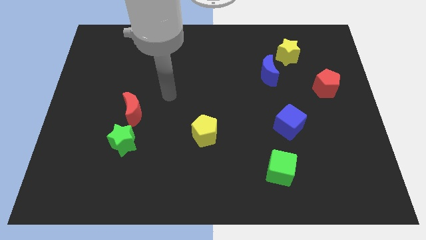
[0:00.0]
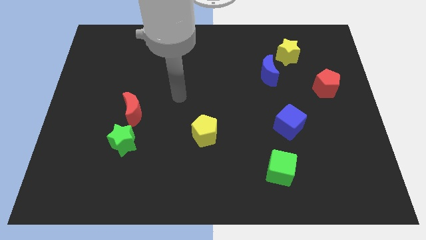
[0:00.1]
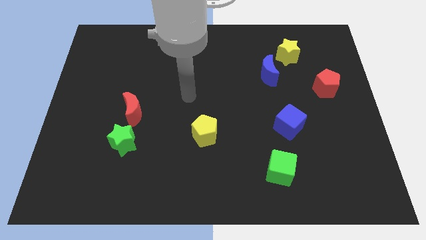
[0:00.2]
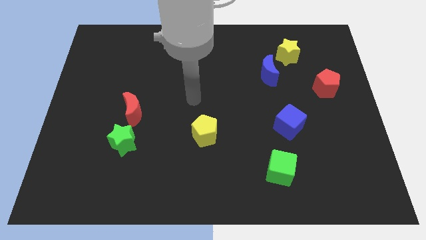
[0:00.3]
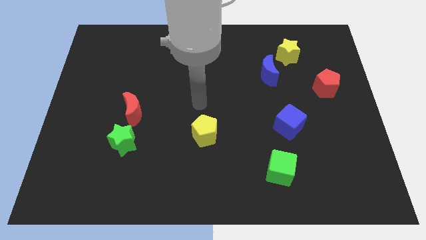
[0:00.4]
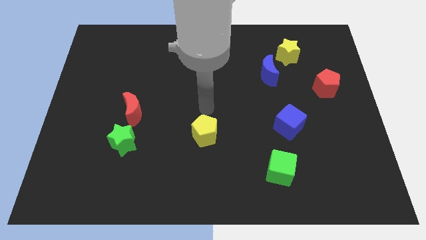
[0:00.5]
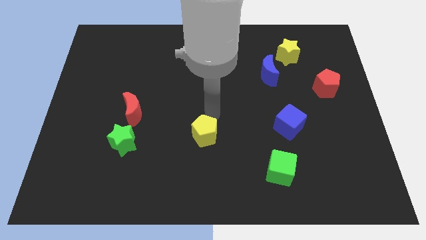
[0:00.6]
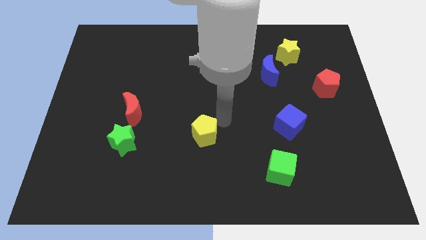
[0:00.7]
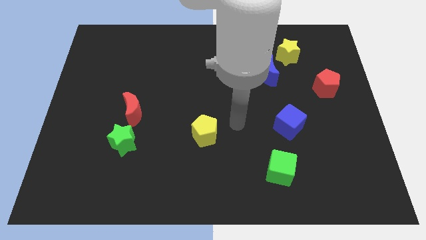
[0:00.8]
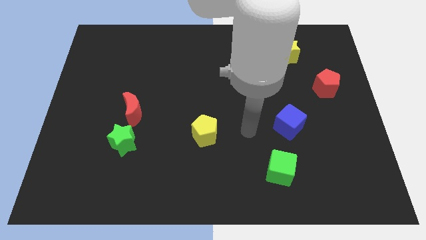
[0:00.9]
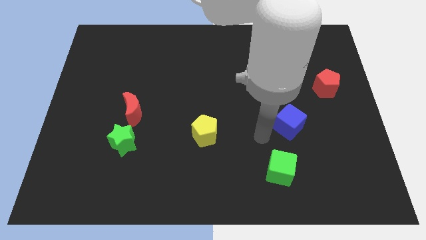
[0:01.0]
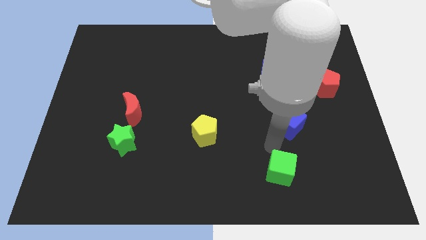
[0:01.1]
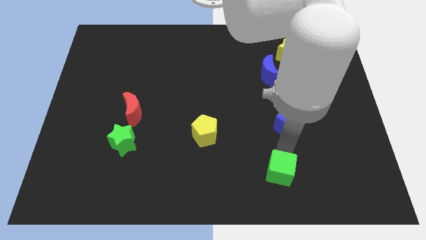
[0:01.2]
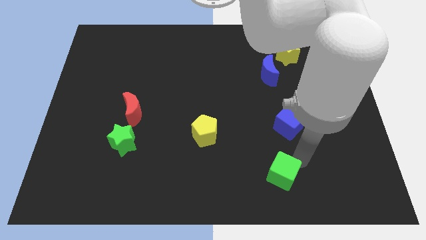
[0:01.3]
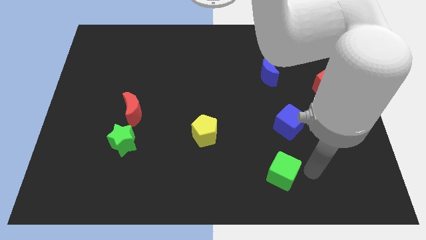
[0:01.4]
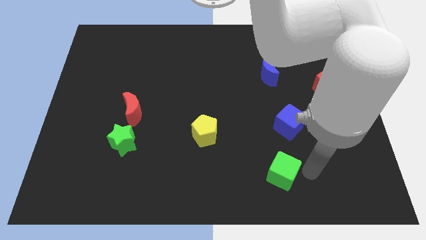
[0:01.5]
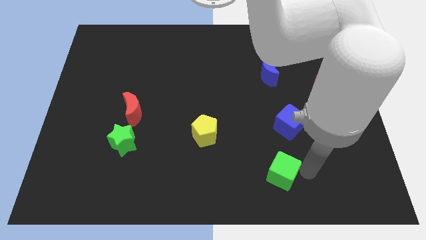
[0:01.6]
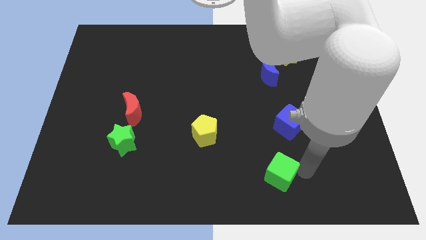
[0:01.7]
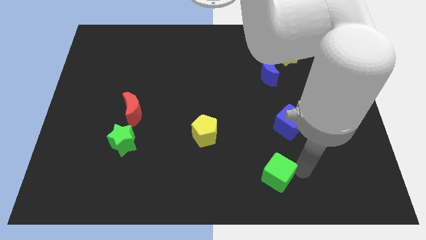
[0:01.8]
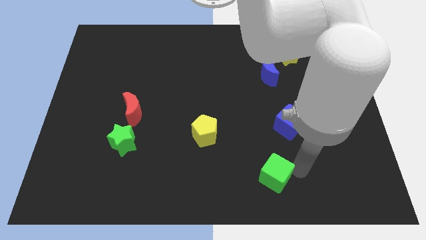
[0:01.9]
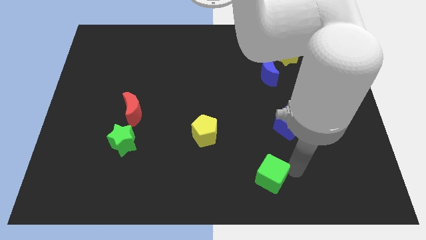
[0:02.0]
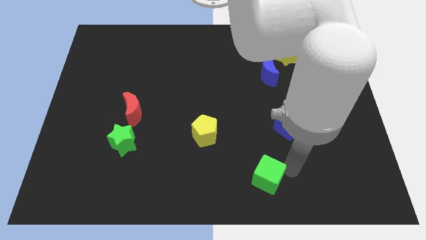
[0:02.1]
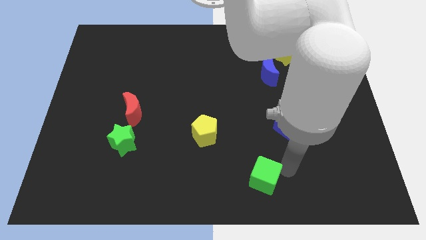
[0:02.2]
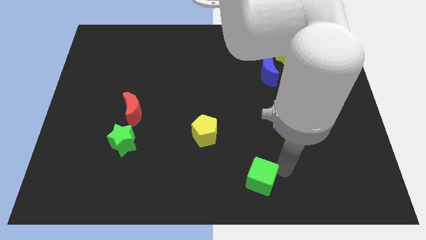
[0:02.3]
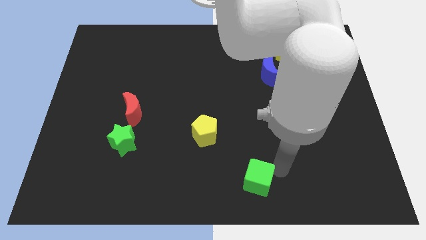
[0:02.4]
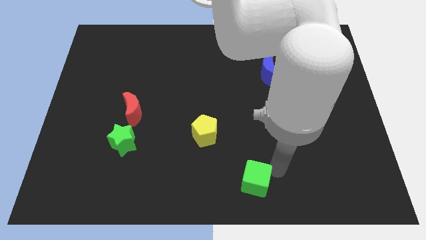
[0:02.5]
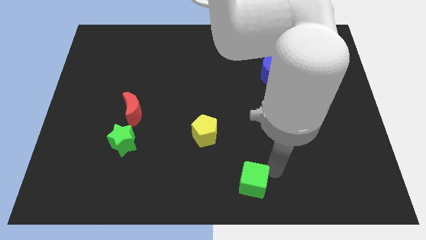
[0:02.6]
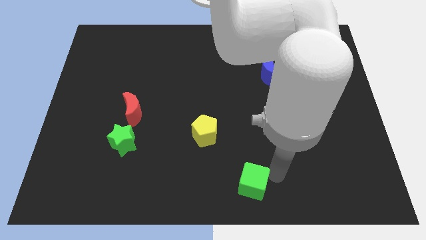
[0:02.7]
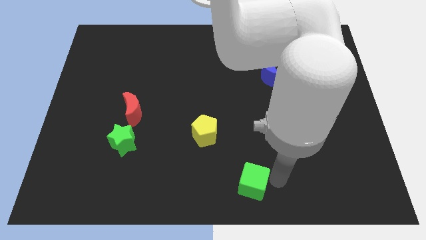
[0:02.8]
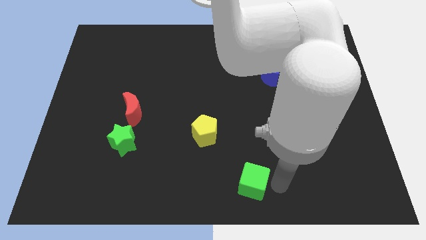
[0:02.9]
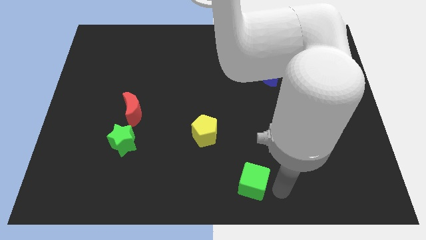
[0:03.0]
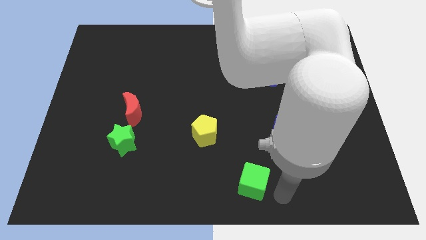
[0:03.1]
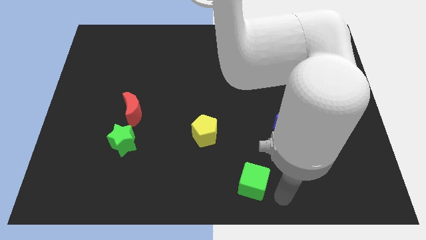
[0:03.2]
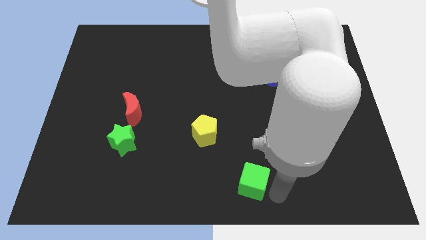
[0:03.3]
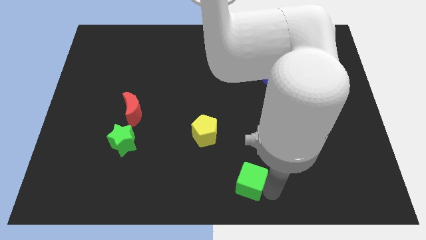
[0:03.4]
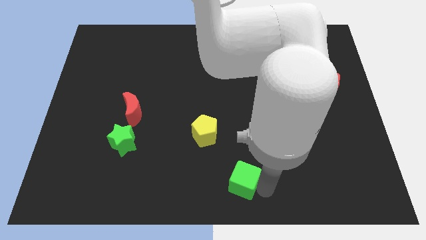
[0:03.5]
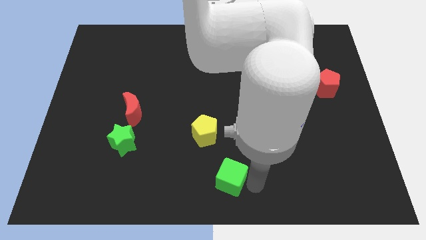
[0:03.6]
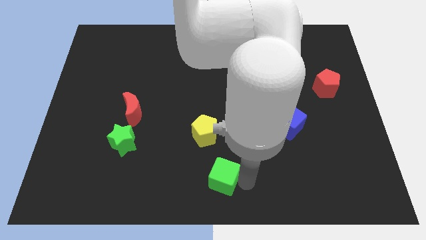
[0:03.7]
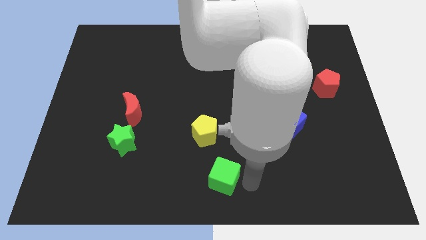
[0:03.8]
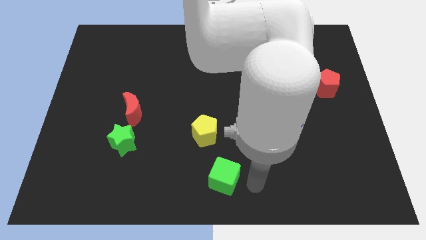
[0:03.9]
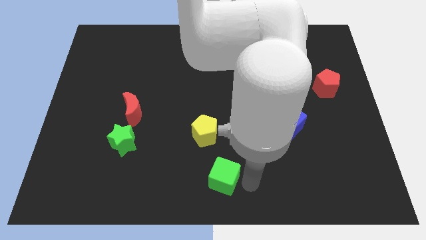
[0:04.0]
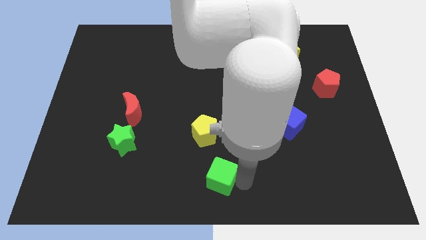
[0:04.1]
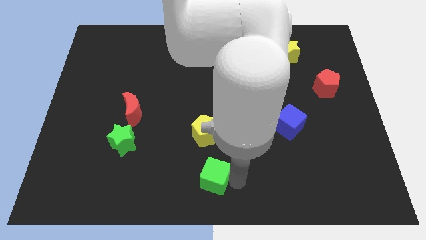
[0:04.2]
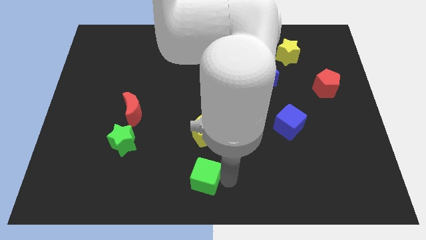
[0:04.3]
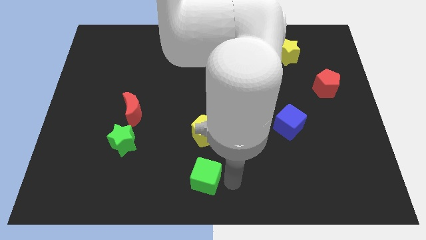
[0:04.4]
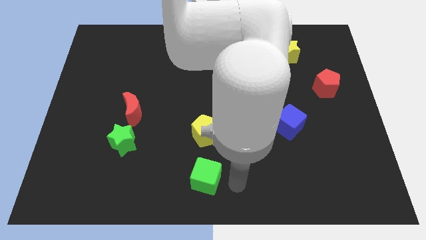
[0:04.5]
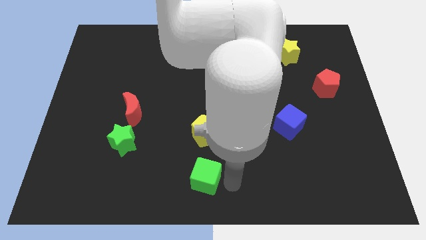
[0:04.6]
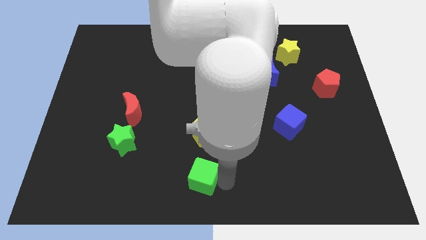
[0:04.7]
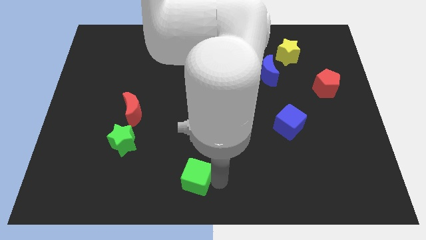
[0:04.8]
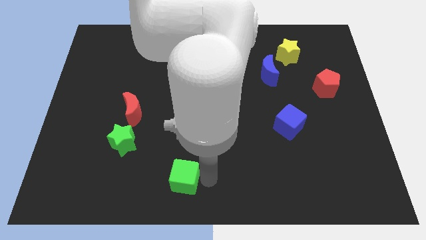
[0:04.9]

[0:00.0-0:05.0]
move the green cube to the left

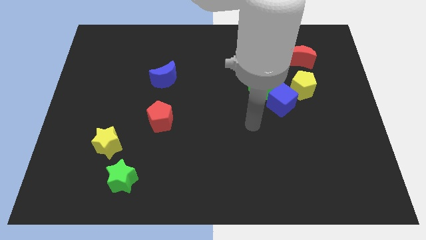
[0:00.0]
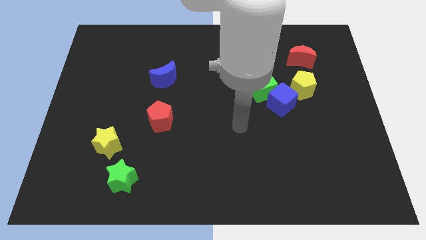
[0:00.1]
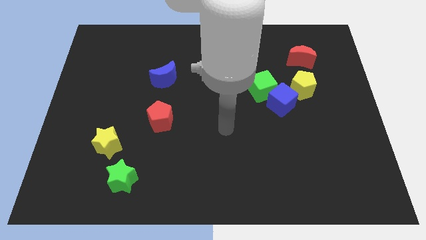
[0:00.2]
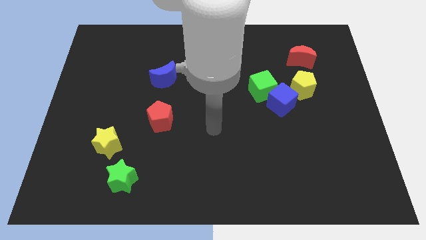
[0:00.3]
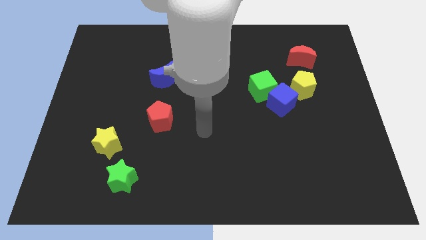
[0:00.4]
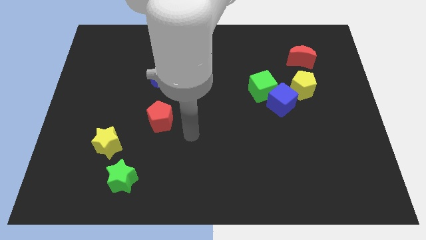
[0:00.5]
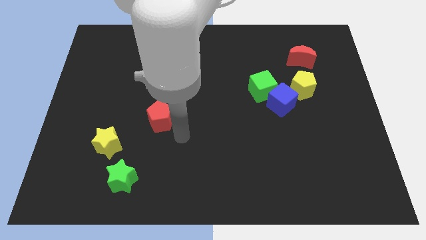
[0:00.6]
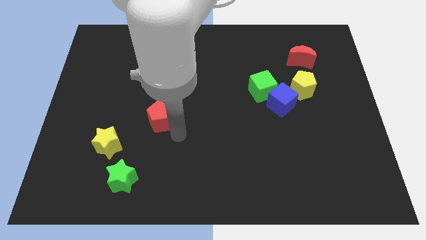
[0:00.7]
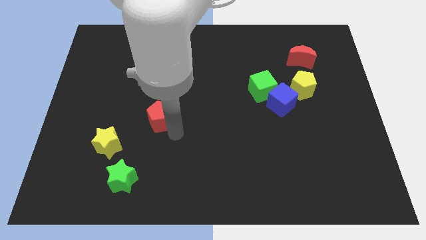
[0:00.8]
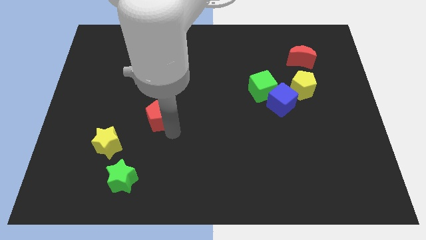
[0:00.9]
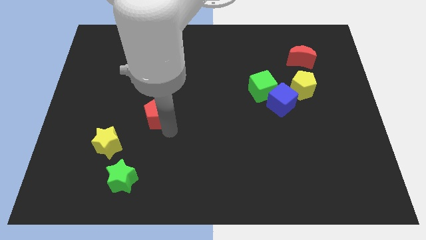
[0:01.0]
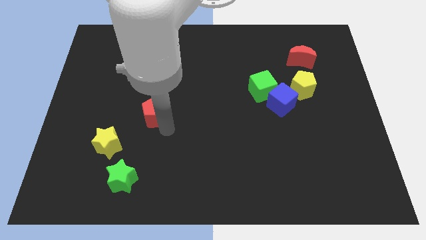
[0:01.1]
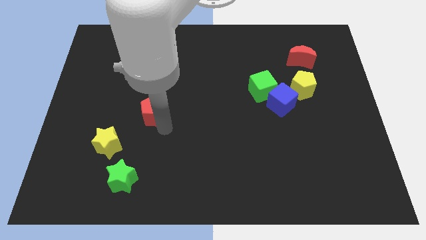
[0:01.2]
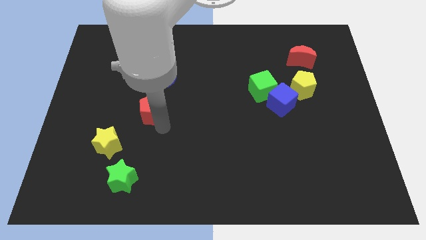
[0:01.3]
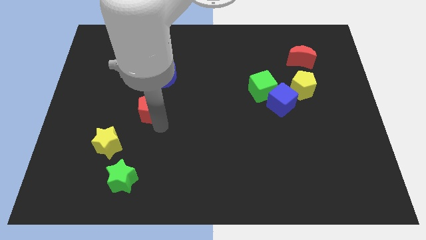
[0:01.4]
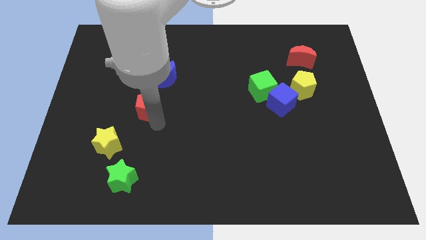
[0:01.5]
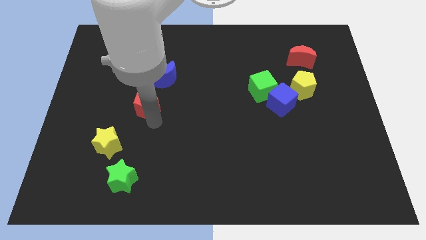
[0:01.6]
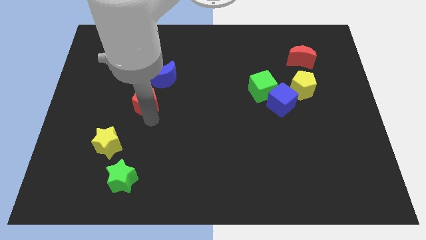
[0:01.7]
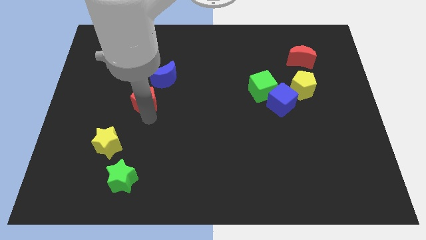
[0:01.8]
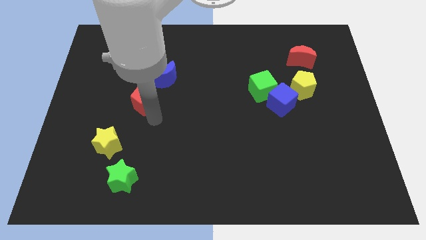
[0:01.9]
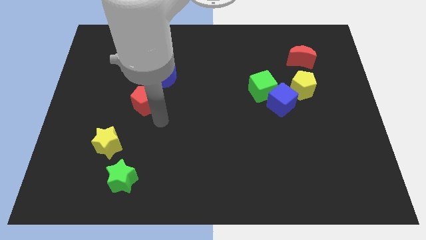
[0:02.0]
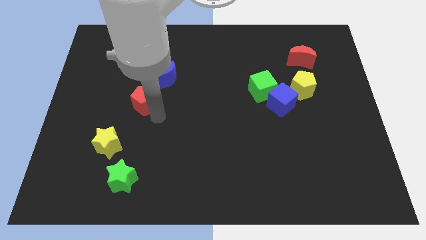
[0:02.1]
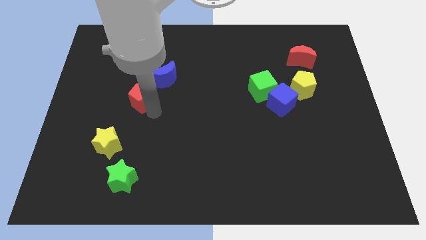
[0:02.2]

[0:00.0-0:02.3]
move the red pentagon upwards and to the left diagonally a little

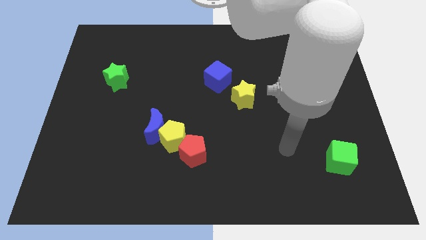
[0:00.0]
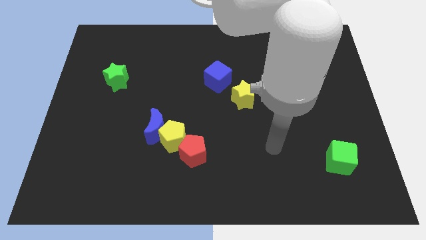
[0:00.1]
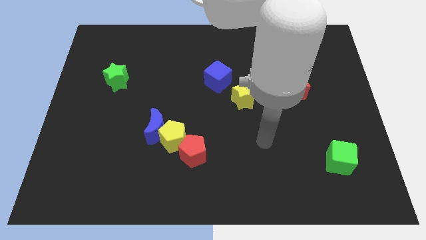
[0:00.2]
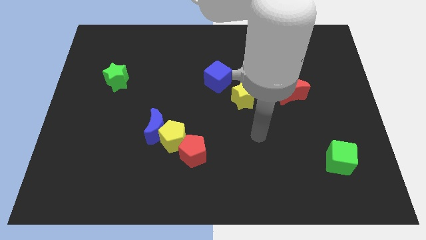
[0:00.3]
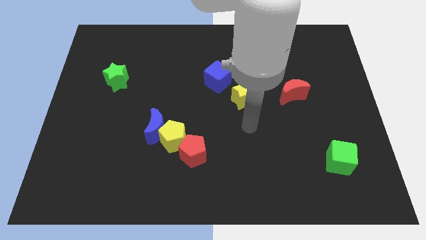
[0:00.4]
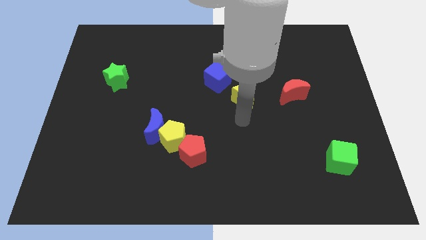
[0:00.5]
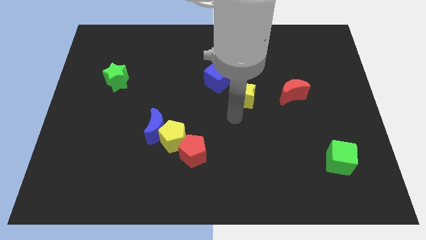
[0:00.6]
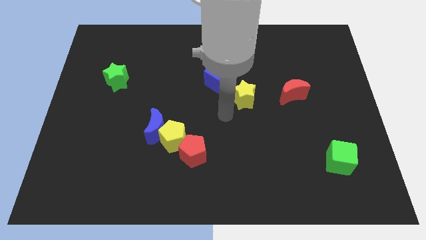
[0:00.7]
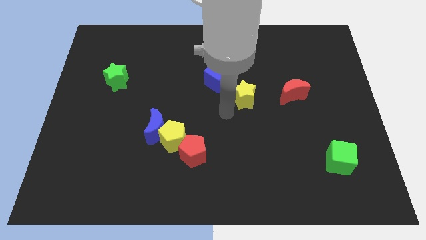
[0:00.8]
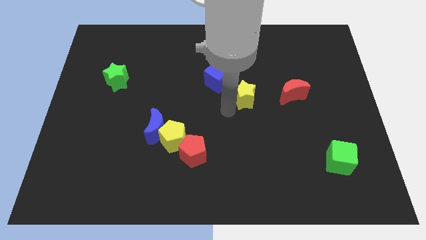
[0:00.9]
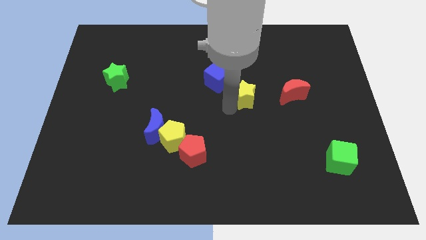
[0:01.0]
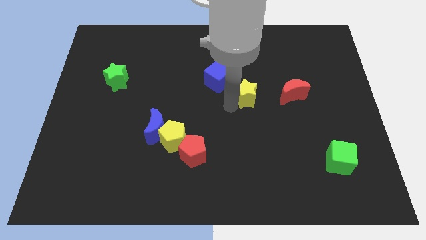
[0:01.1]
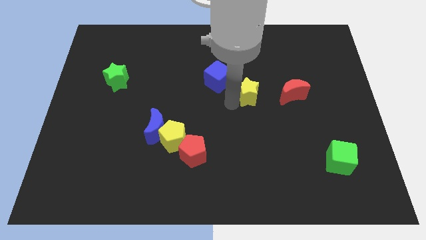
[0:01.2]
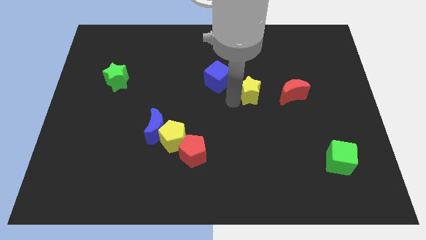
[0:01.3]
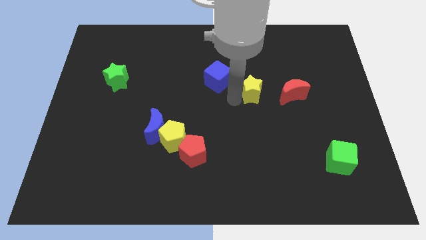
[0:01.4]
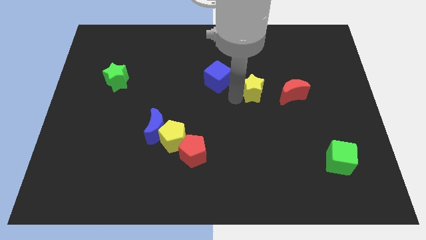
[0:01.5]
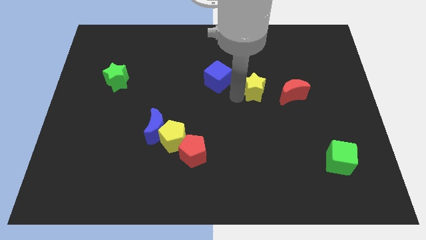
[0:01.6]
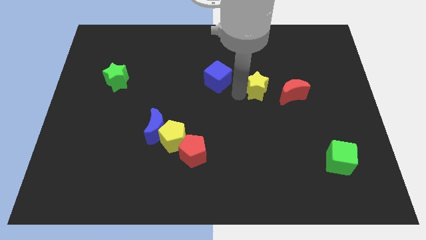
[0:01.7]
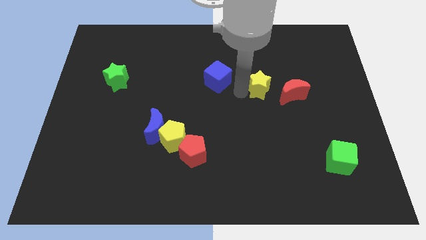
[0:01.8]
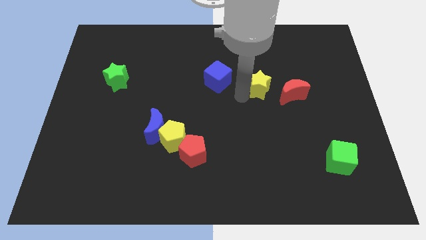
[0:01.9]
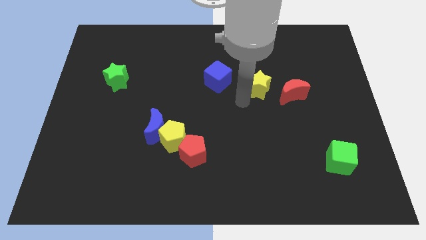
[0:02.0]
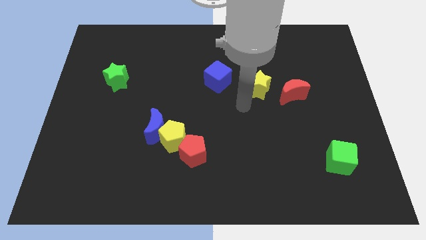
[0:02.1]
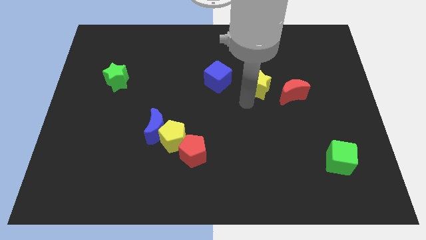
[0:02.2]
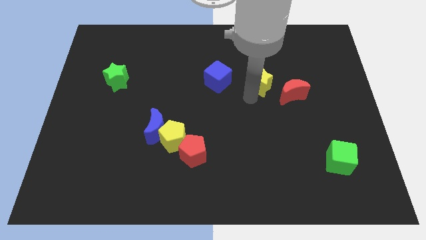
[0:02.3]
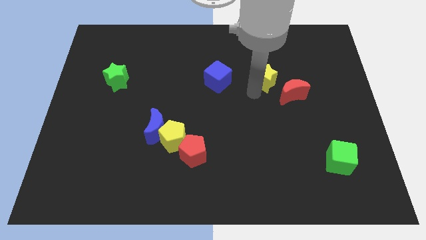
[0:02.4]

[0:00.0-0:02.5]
push the yellow star a little bit up and right
